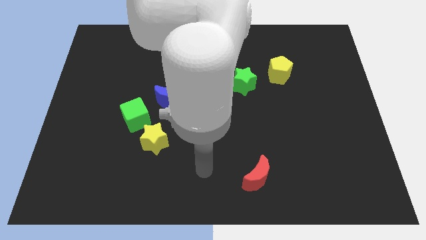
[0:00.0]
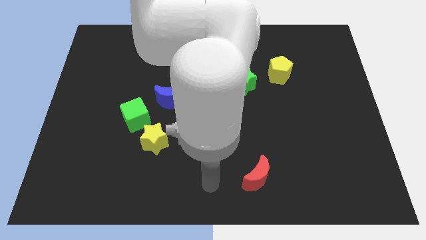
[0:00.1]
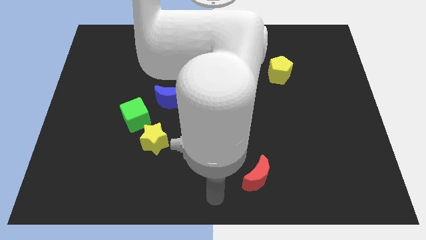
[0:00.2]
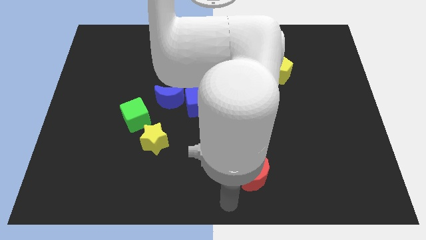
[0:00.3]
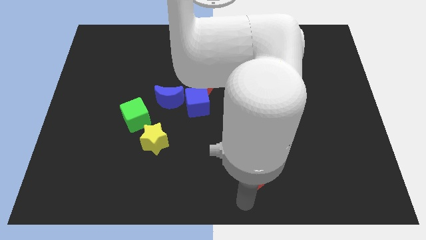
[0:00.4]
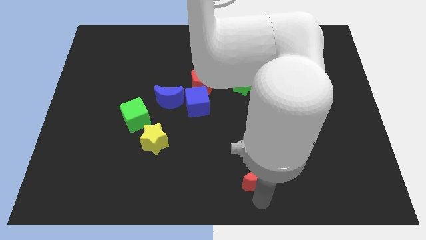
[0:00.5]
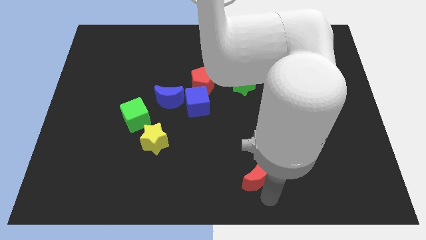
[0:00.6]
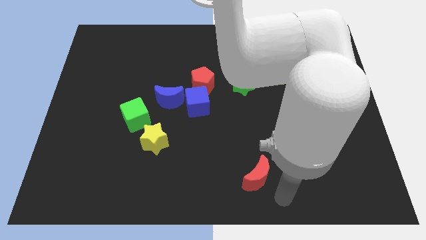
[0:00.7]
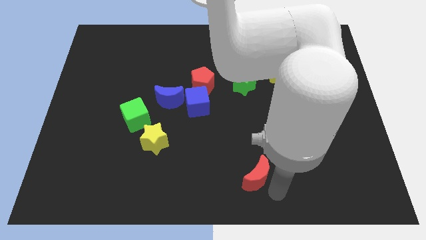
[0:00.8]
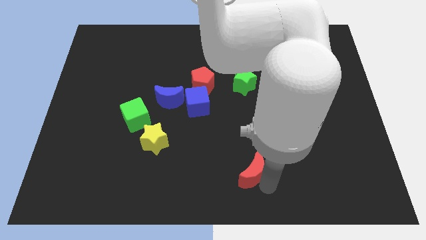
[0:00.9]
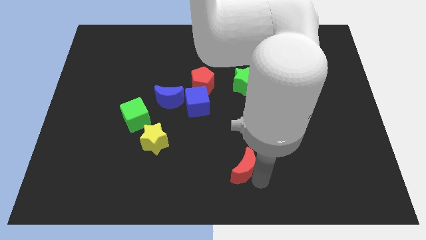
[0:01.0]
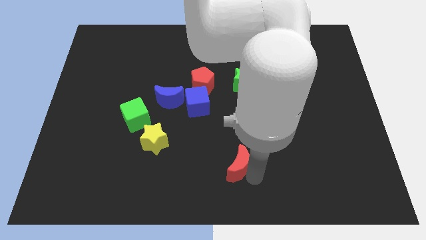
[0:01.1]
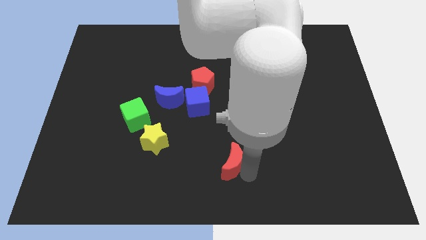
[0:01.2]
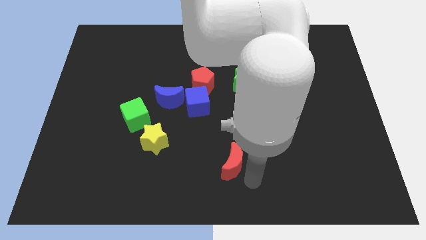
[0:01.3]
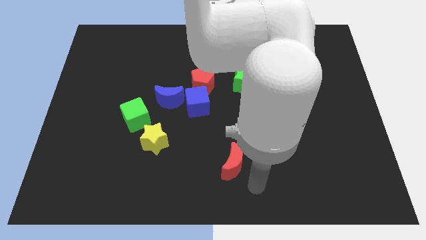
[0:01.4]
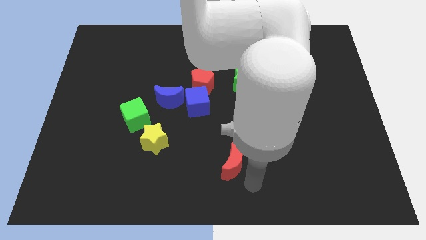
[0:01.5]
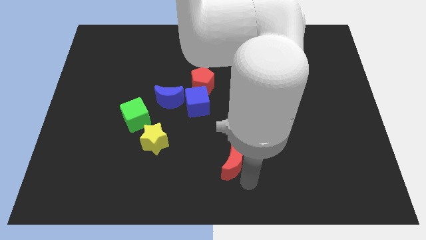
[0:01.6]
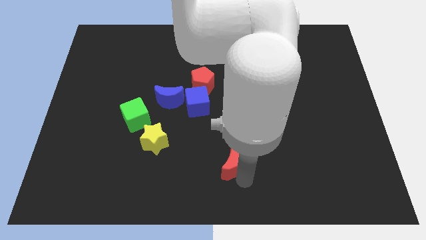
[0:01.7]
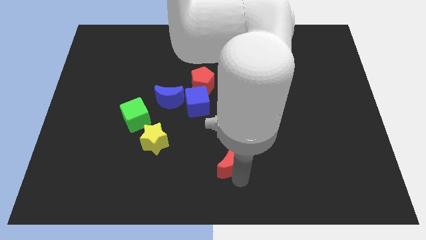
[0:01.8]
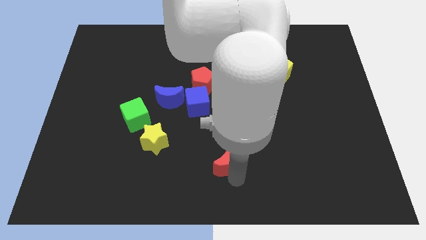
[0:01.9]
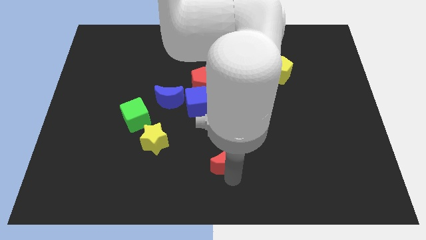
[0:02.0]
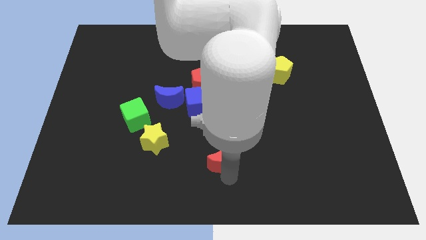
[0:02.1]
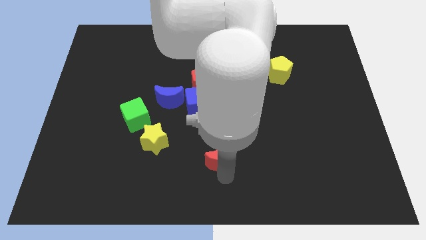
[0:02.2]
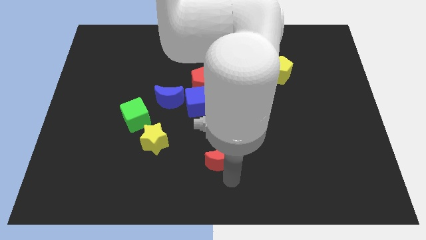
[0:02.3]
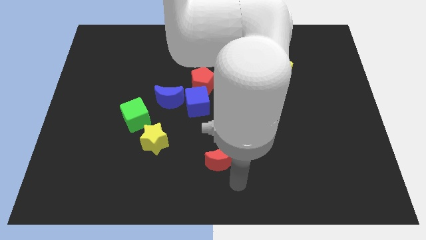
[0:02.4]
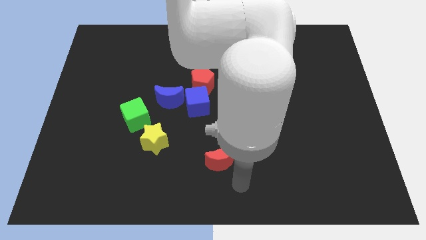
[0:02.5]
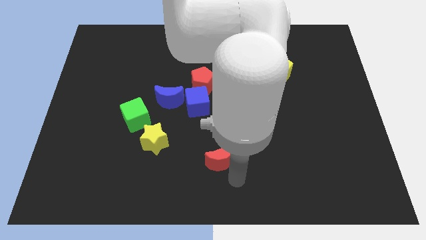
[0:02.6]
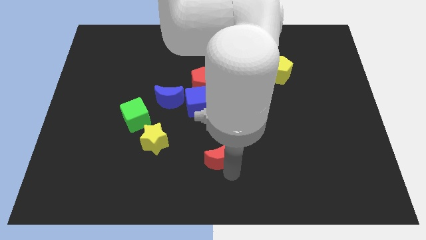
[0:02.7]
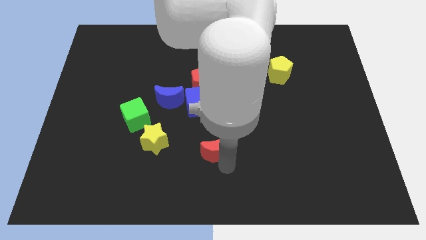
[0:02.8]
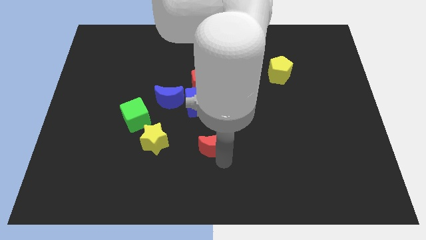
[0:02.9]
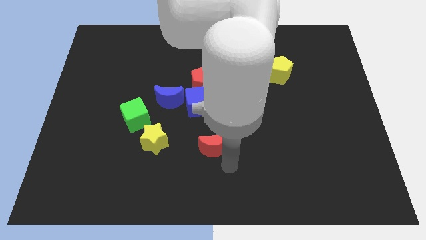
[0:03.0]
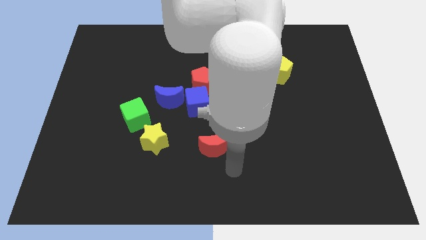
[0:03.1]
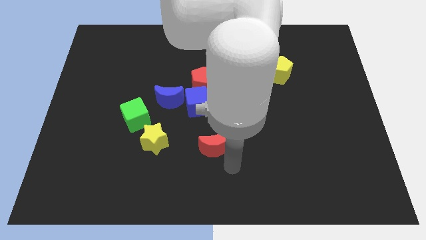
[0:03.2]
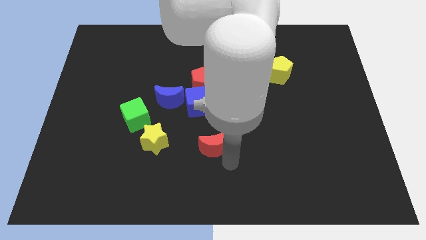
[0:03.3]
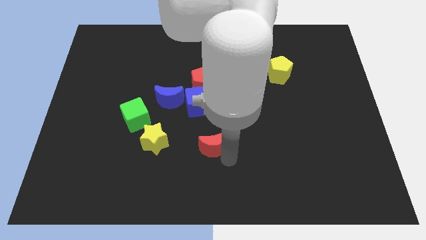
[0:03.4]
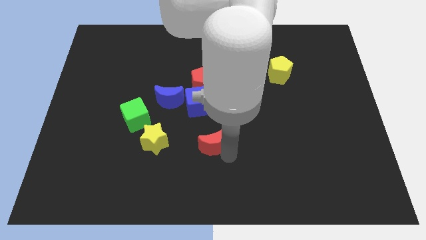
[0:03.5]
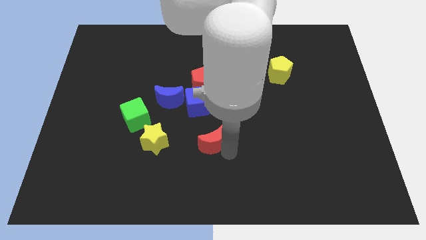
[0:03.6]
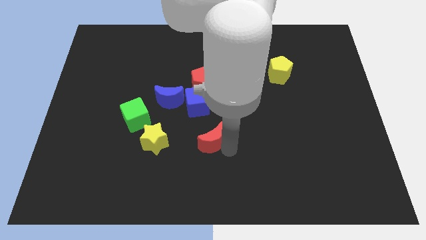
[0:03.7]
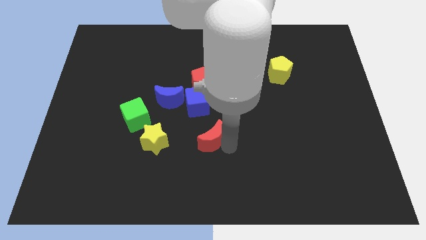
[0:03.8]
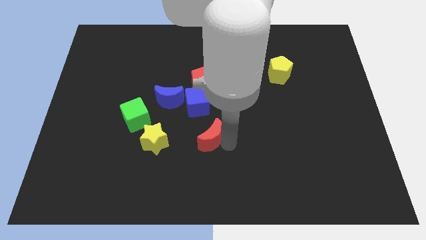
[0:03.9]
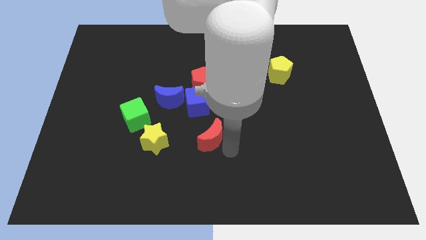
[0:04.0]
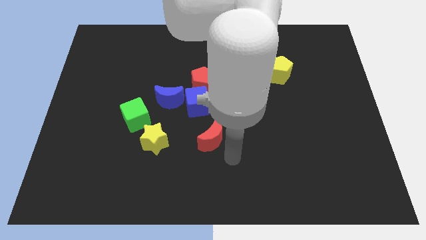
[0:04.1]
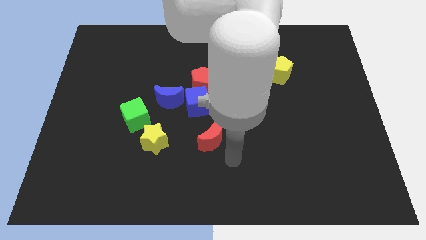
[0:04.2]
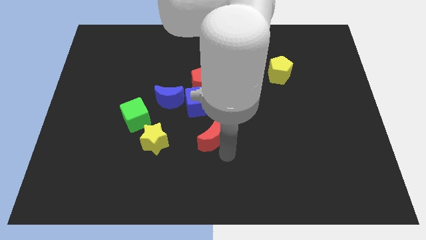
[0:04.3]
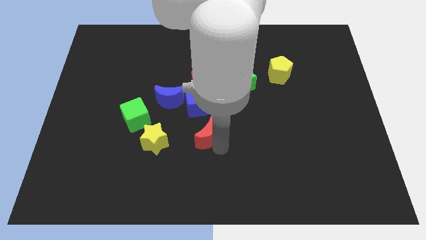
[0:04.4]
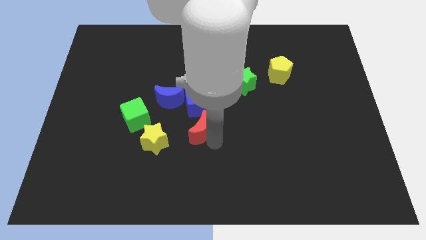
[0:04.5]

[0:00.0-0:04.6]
push the red moon diagonally down and to the right of the blue moon

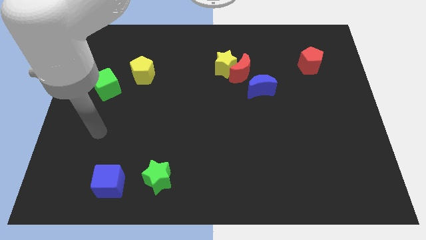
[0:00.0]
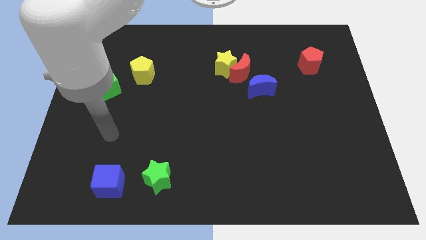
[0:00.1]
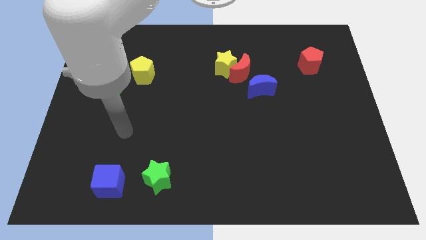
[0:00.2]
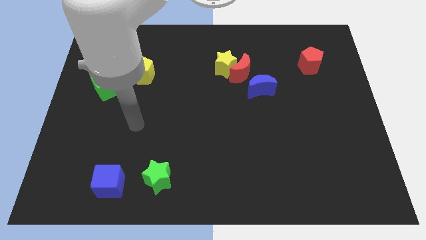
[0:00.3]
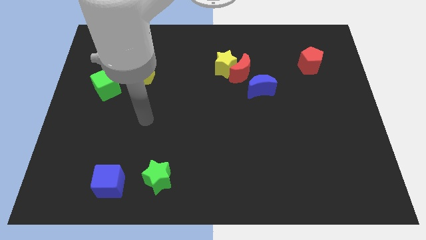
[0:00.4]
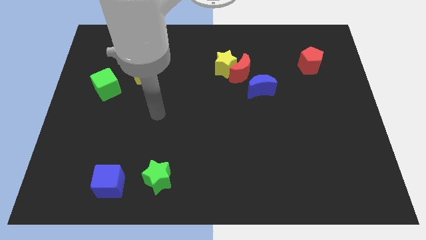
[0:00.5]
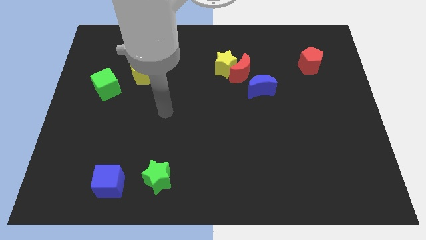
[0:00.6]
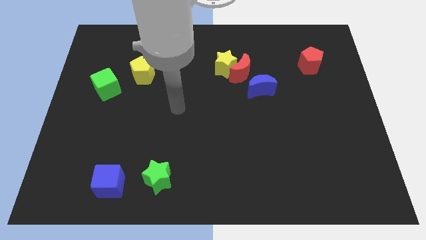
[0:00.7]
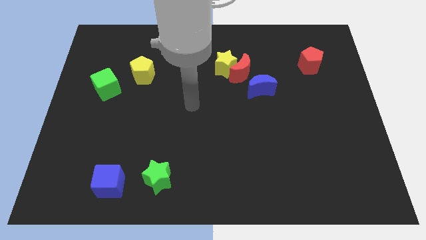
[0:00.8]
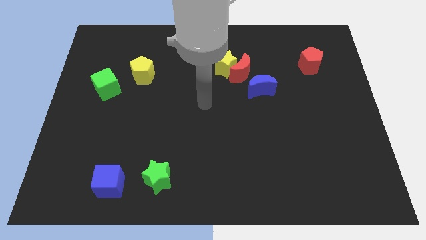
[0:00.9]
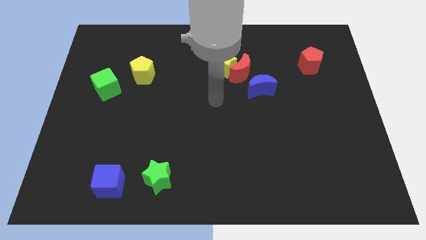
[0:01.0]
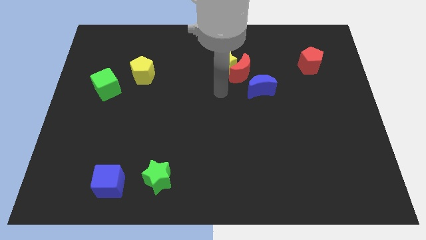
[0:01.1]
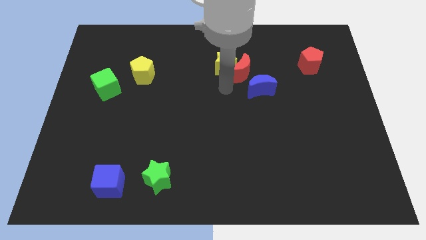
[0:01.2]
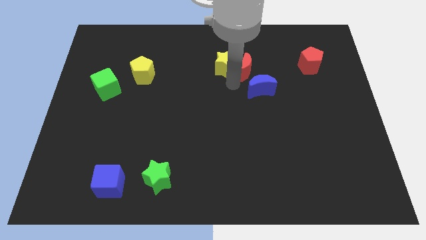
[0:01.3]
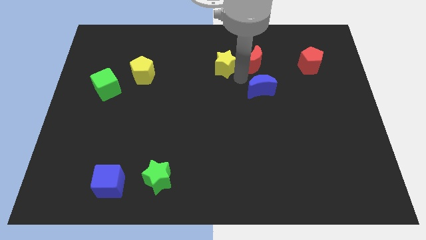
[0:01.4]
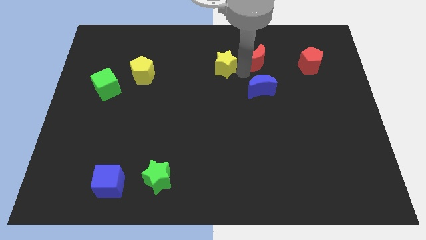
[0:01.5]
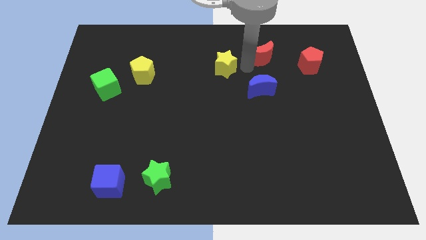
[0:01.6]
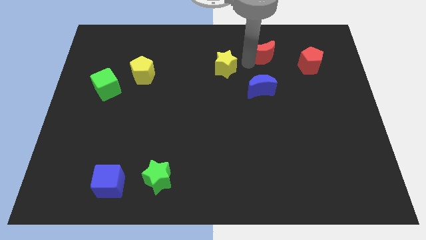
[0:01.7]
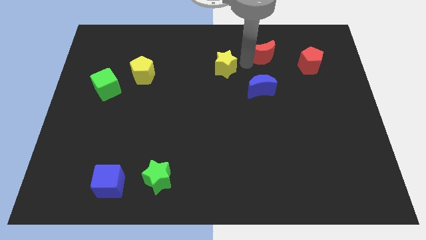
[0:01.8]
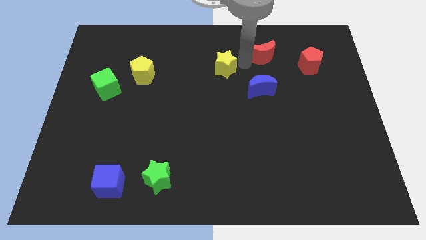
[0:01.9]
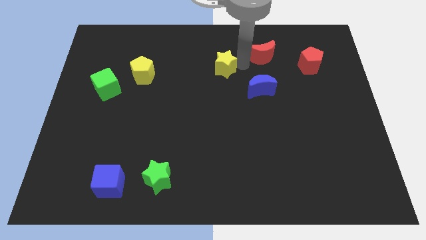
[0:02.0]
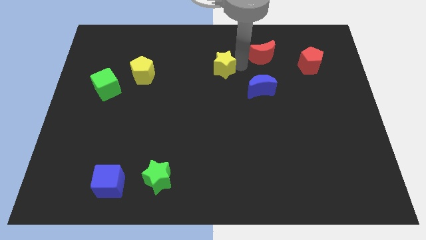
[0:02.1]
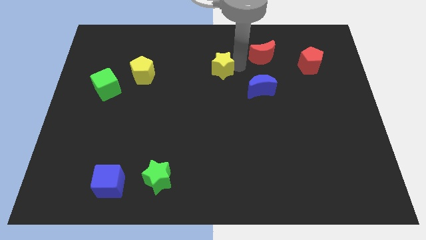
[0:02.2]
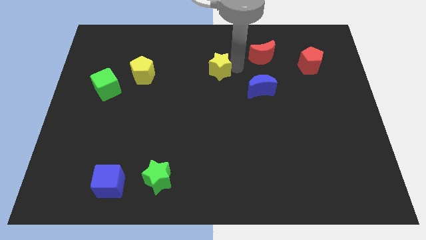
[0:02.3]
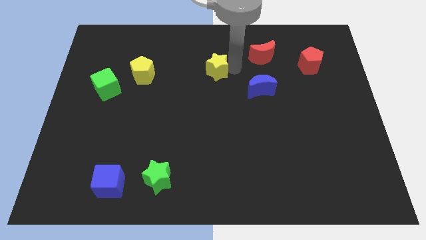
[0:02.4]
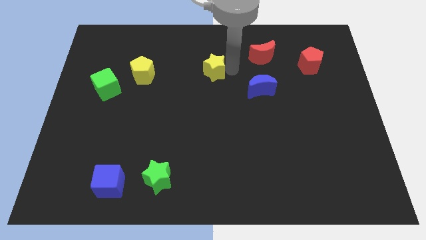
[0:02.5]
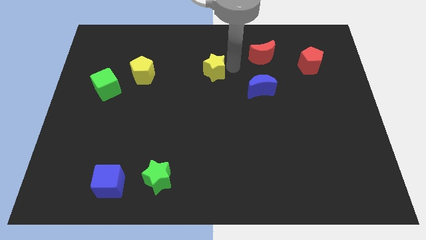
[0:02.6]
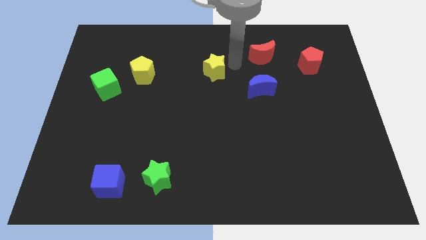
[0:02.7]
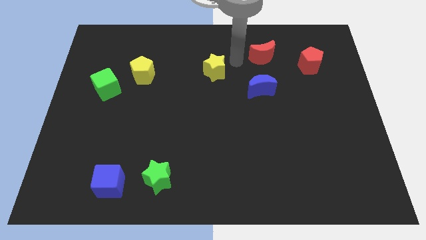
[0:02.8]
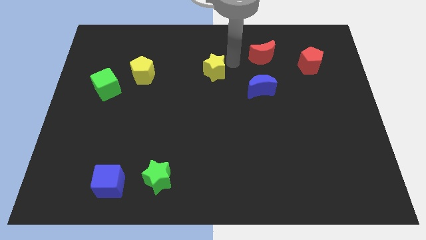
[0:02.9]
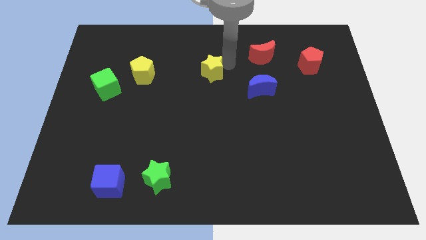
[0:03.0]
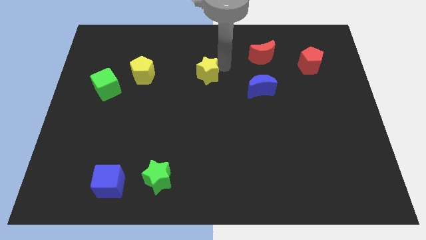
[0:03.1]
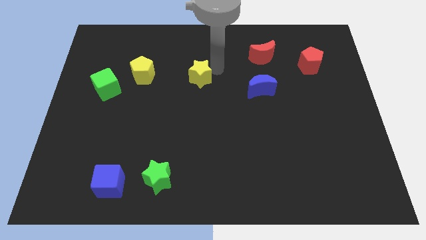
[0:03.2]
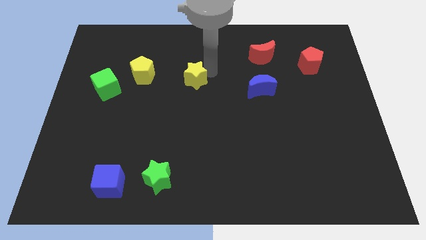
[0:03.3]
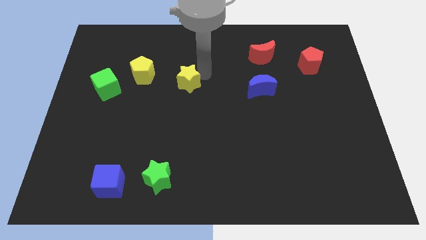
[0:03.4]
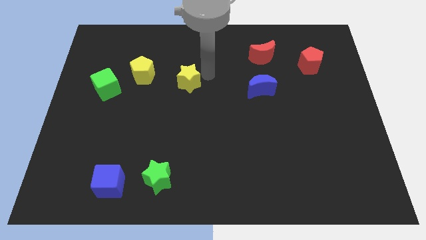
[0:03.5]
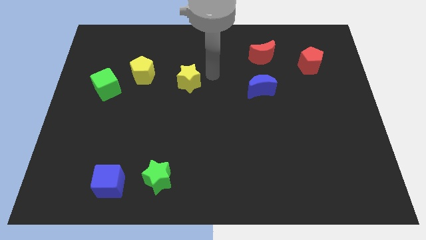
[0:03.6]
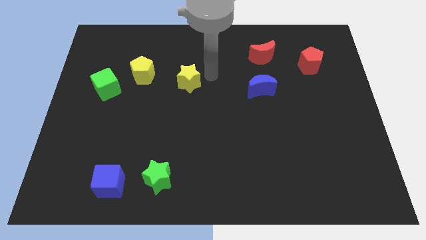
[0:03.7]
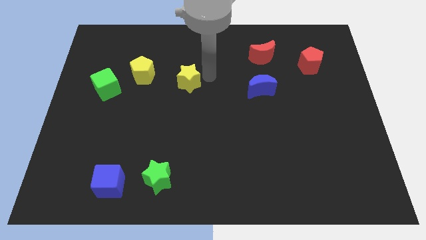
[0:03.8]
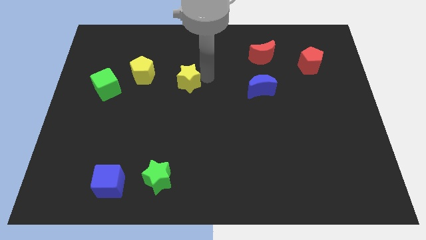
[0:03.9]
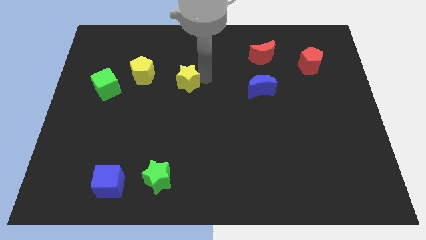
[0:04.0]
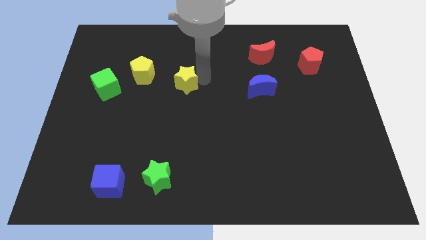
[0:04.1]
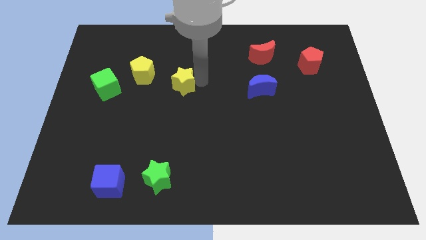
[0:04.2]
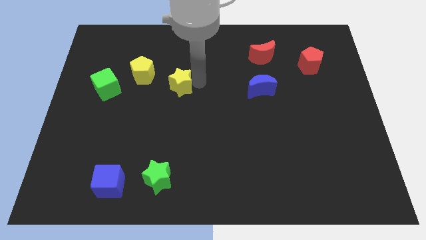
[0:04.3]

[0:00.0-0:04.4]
slide the yellow star diagonally down and to the right of the yellow pentagon
